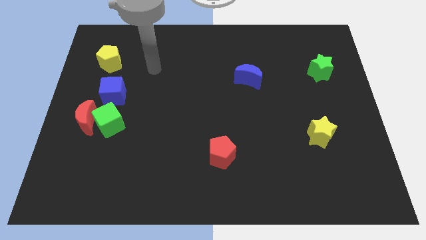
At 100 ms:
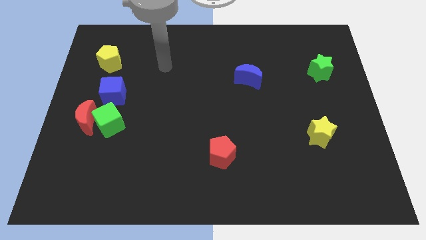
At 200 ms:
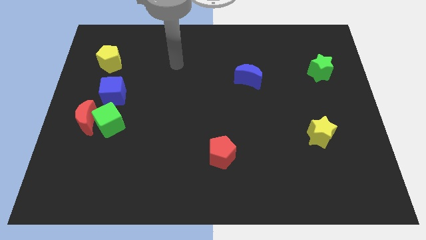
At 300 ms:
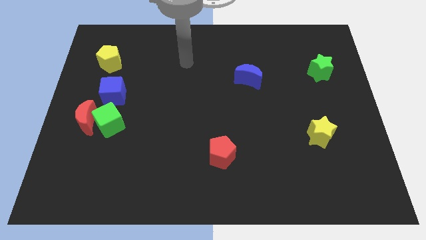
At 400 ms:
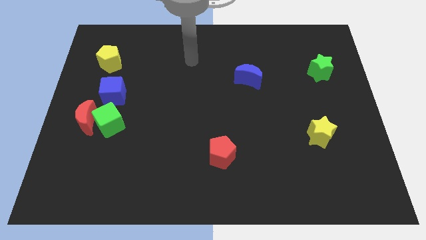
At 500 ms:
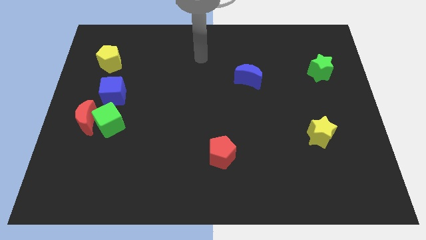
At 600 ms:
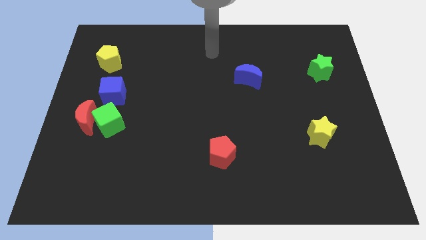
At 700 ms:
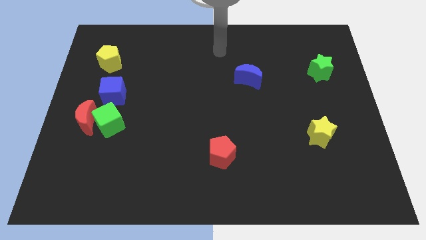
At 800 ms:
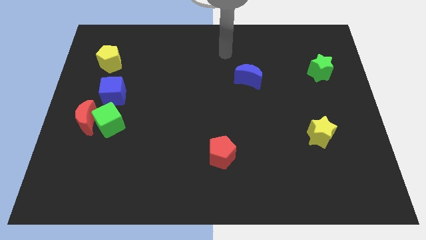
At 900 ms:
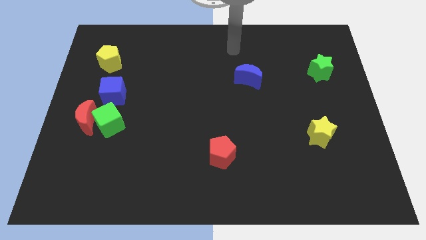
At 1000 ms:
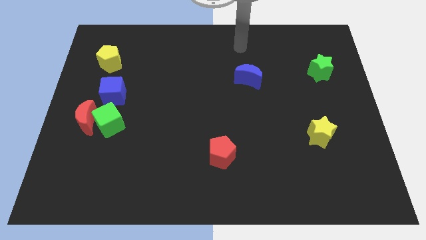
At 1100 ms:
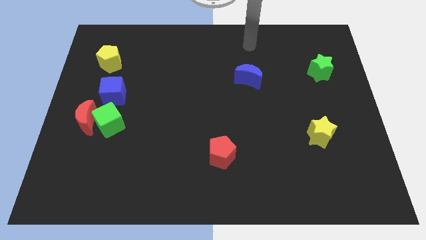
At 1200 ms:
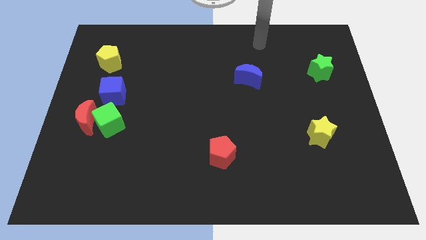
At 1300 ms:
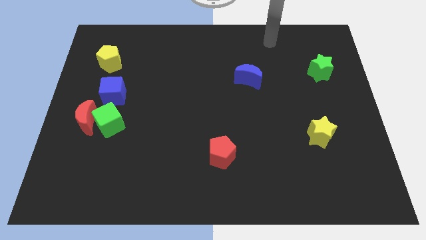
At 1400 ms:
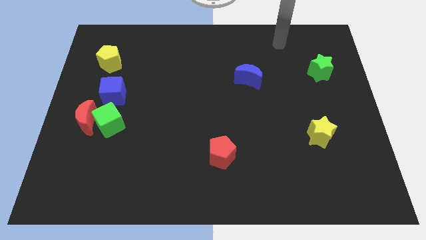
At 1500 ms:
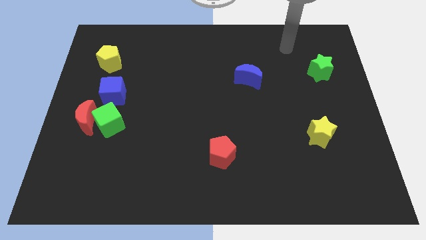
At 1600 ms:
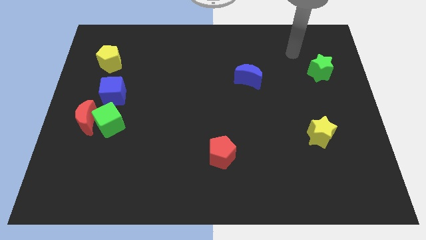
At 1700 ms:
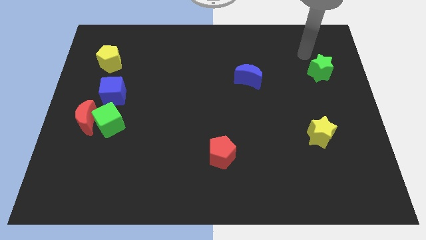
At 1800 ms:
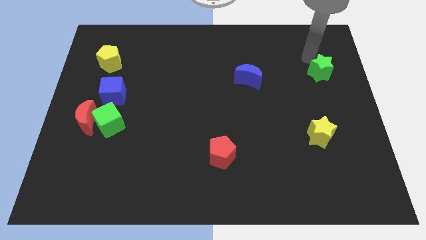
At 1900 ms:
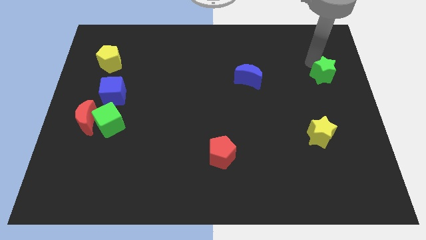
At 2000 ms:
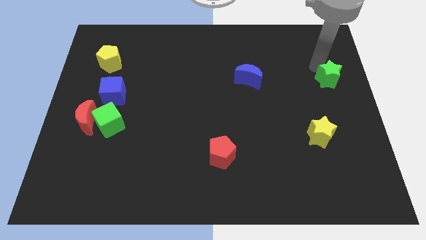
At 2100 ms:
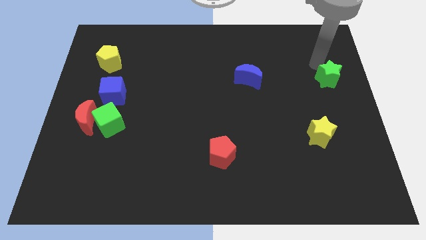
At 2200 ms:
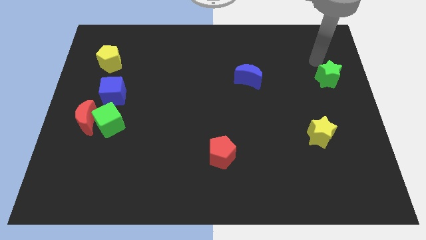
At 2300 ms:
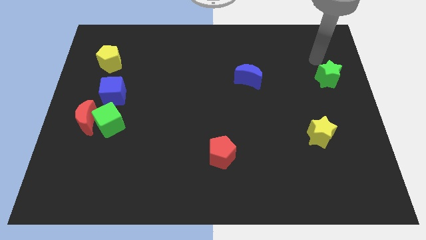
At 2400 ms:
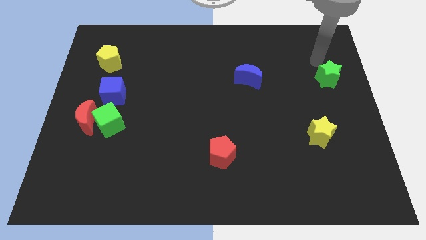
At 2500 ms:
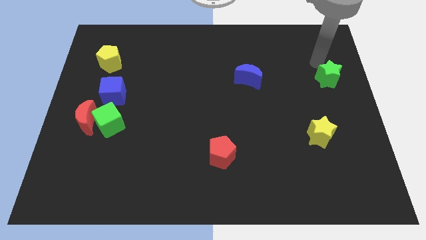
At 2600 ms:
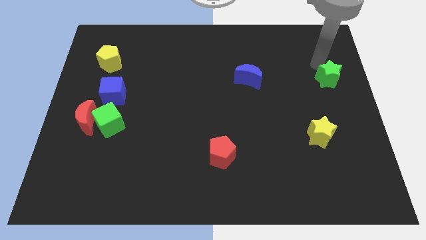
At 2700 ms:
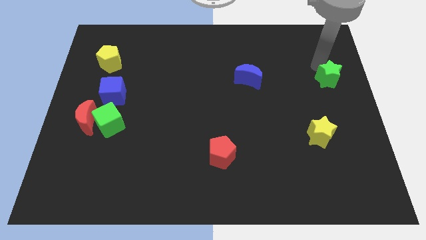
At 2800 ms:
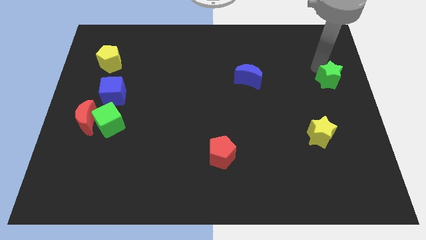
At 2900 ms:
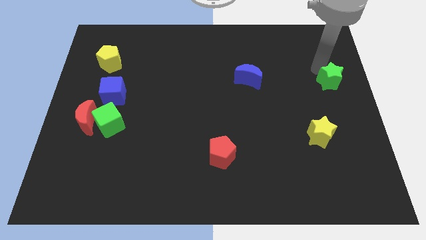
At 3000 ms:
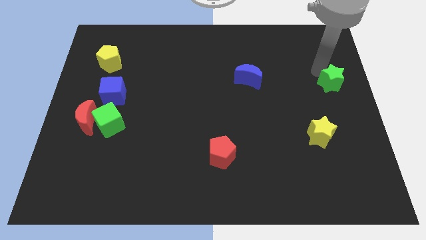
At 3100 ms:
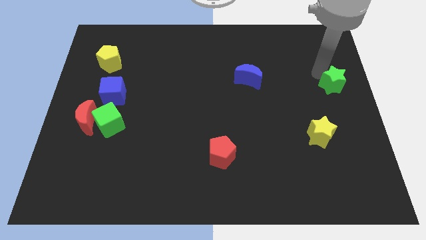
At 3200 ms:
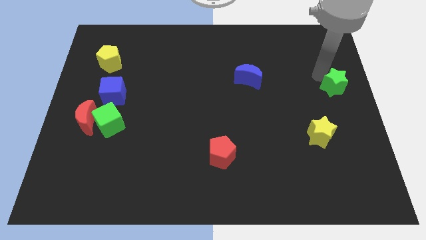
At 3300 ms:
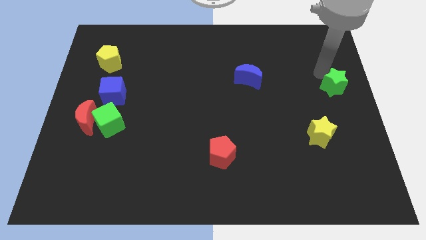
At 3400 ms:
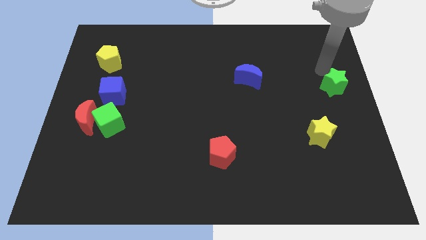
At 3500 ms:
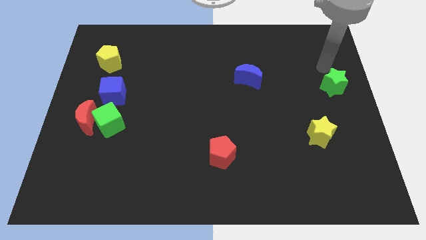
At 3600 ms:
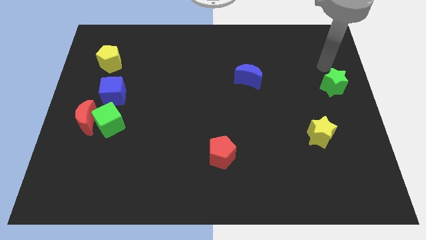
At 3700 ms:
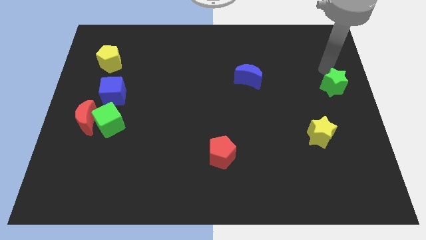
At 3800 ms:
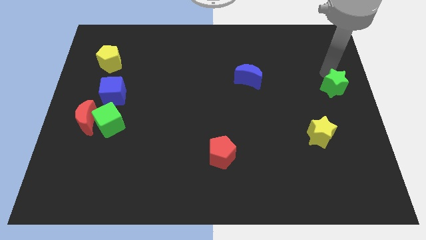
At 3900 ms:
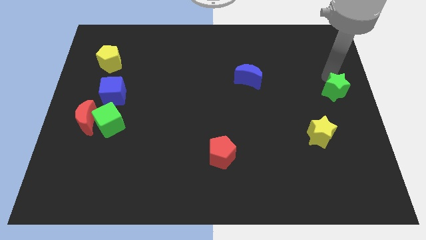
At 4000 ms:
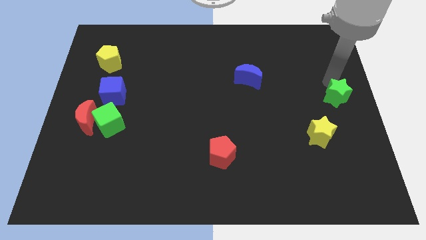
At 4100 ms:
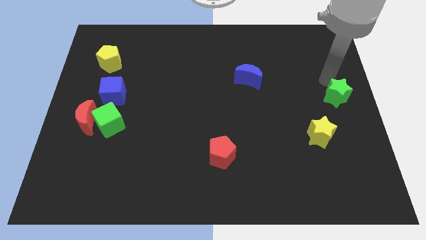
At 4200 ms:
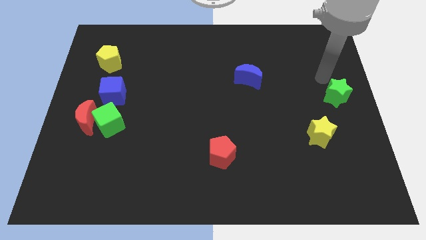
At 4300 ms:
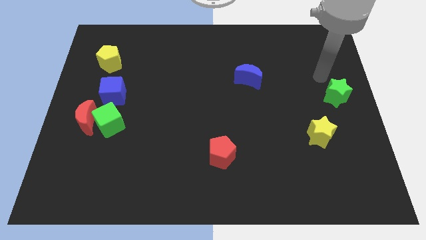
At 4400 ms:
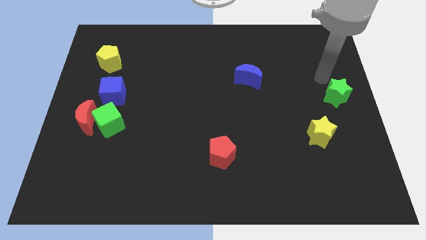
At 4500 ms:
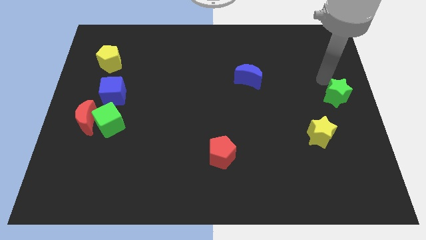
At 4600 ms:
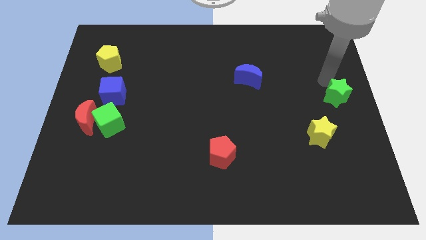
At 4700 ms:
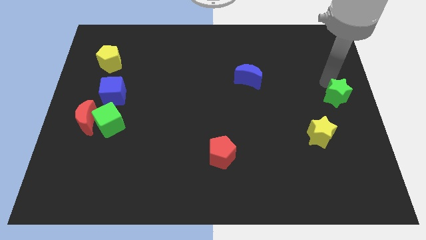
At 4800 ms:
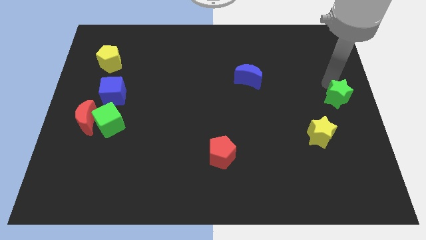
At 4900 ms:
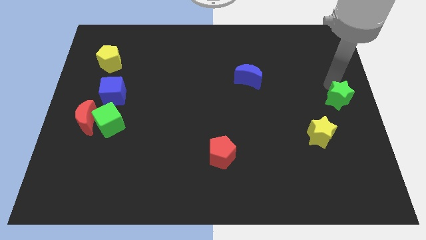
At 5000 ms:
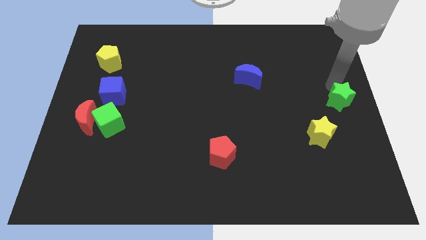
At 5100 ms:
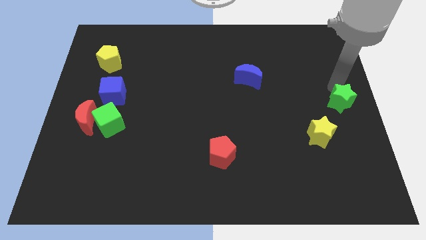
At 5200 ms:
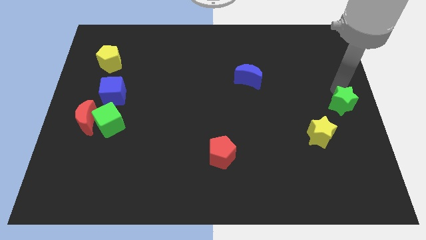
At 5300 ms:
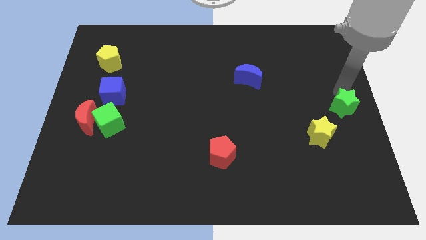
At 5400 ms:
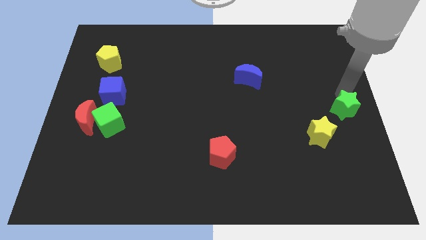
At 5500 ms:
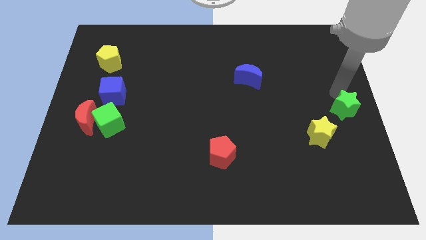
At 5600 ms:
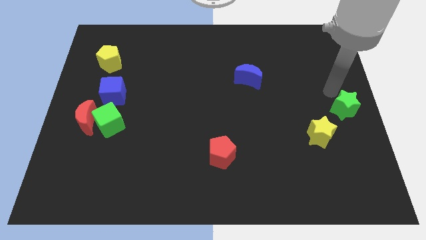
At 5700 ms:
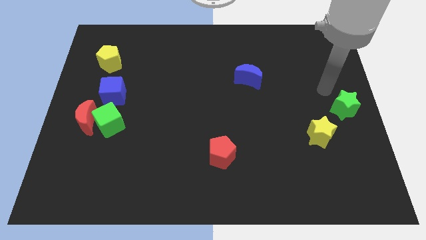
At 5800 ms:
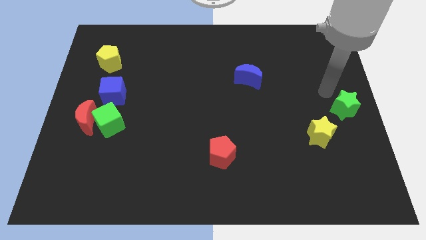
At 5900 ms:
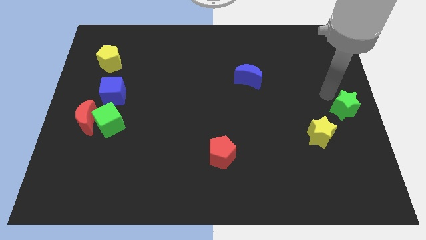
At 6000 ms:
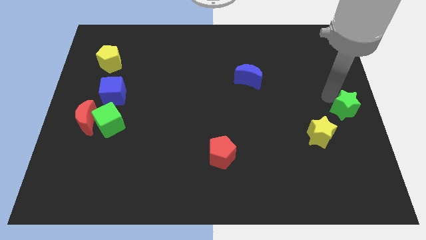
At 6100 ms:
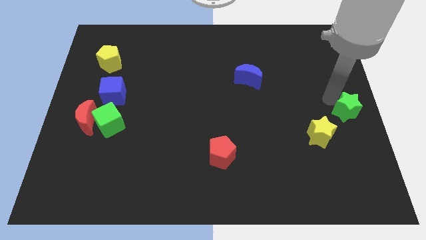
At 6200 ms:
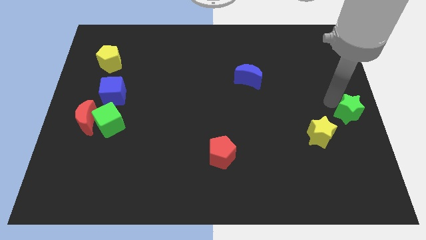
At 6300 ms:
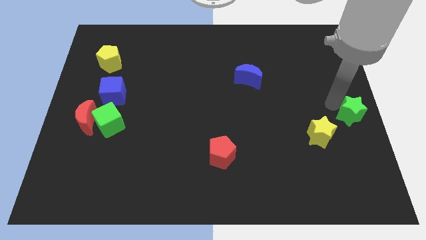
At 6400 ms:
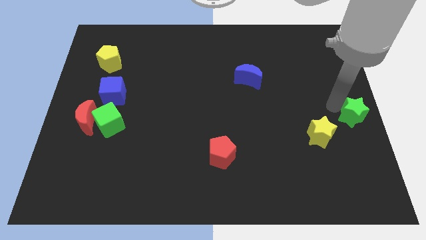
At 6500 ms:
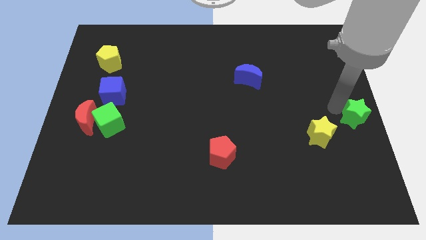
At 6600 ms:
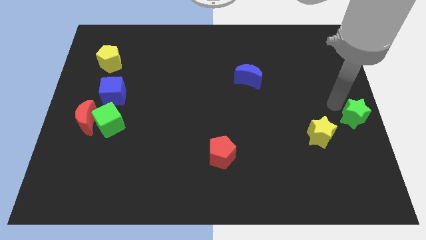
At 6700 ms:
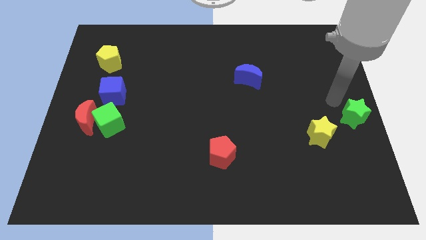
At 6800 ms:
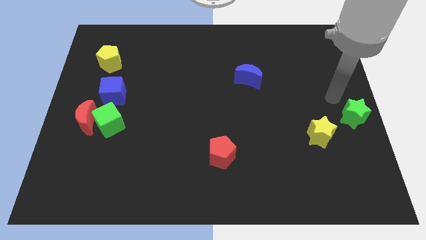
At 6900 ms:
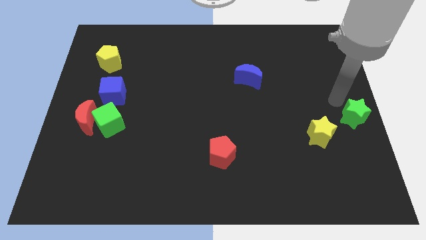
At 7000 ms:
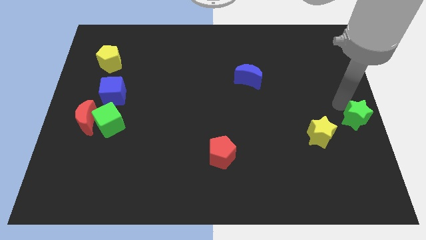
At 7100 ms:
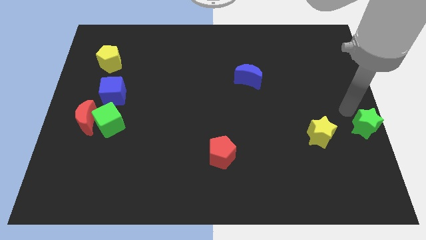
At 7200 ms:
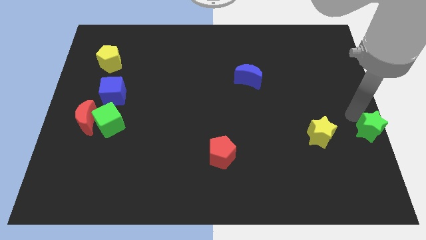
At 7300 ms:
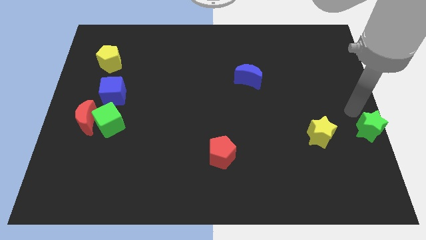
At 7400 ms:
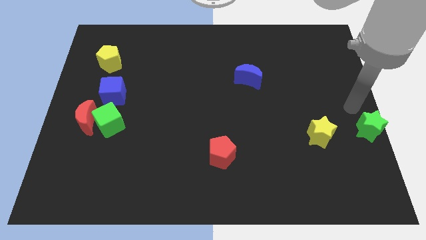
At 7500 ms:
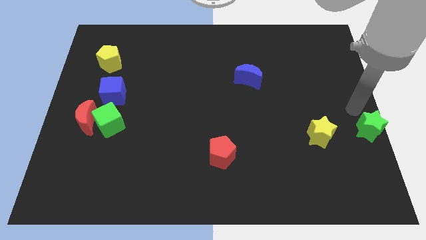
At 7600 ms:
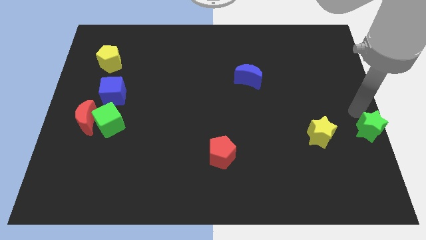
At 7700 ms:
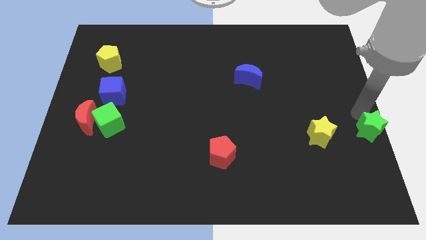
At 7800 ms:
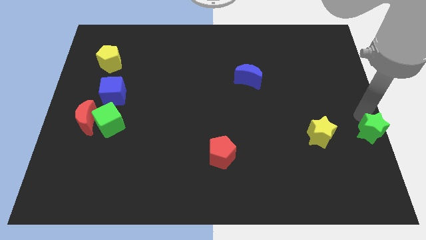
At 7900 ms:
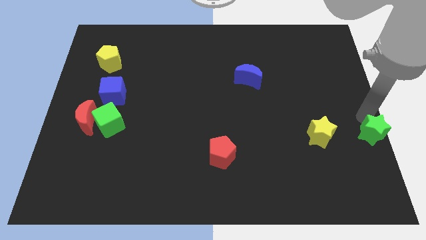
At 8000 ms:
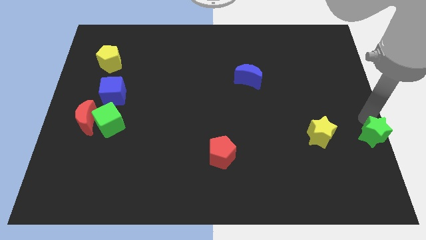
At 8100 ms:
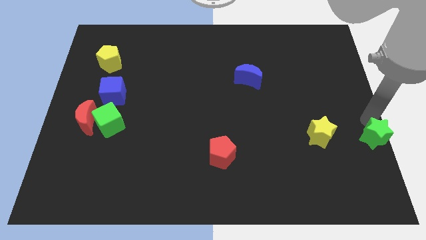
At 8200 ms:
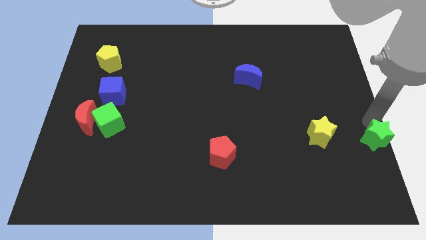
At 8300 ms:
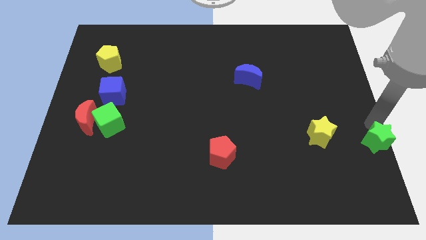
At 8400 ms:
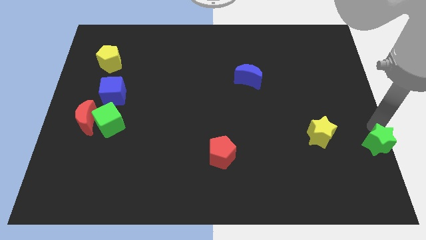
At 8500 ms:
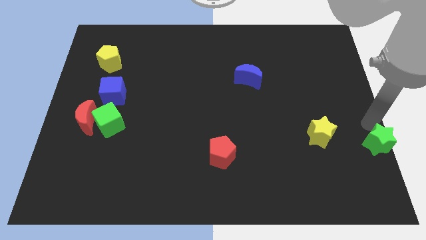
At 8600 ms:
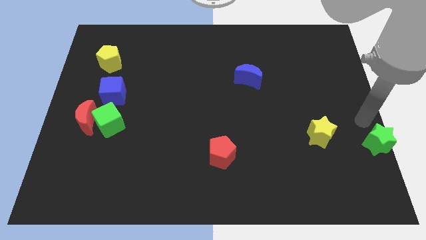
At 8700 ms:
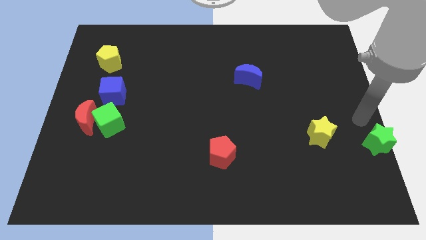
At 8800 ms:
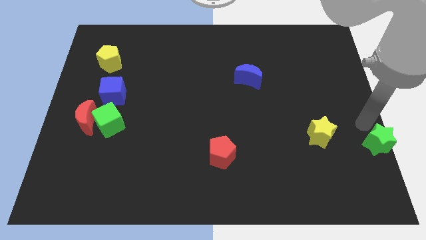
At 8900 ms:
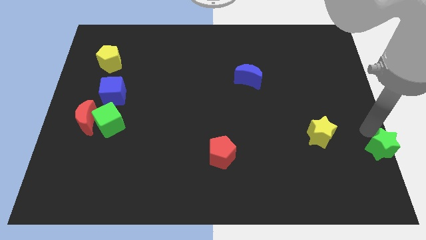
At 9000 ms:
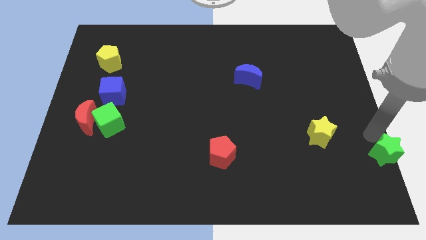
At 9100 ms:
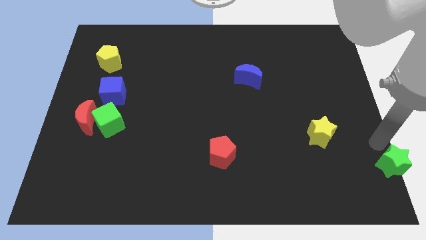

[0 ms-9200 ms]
push the green star to the bottom right
